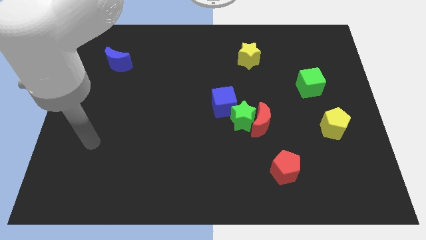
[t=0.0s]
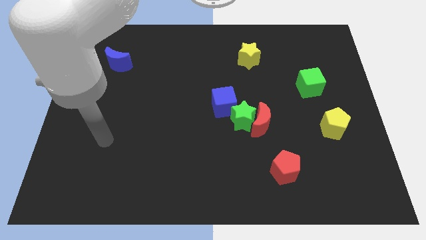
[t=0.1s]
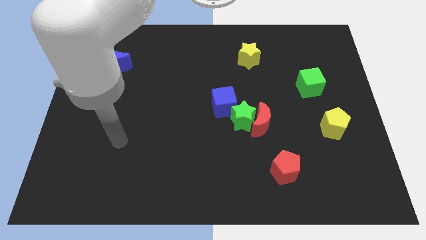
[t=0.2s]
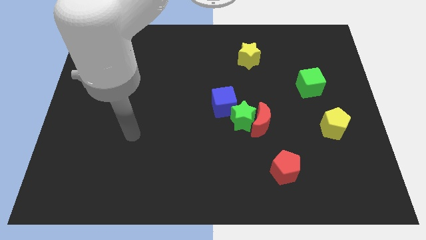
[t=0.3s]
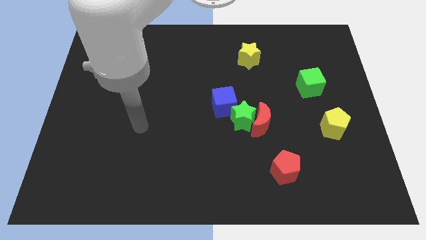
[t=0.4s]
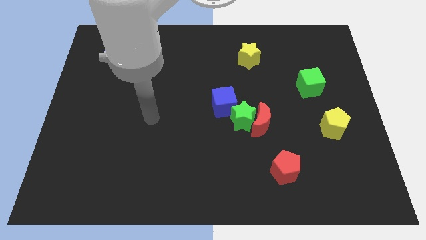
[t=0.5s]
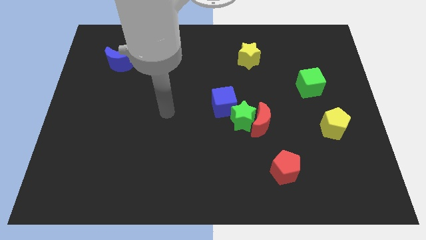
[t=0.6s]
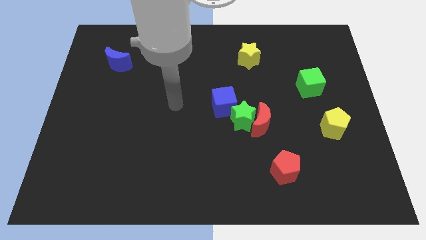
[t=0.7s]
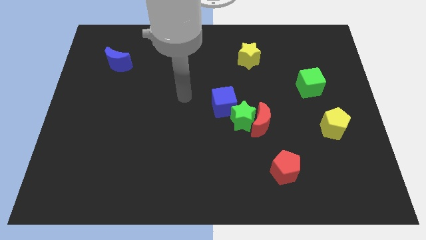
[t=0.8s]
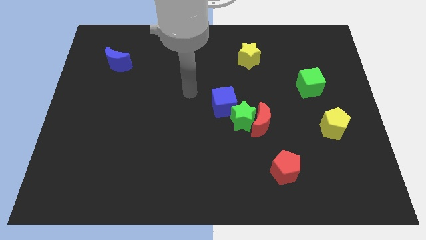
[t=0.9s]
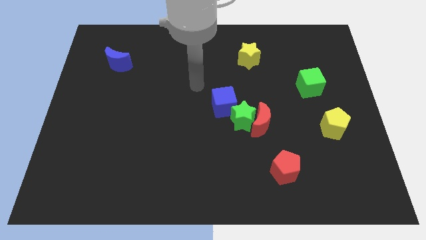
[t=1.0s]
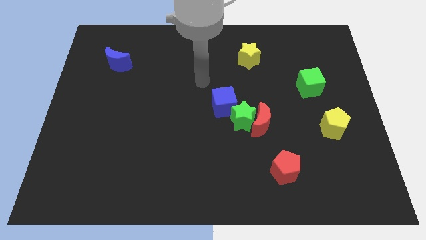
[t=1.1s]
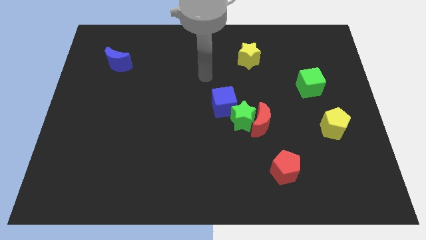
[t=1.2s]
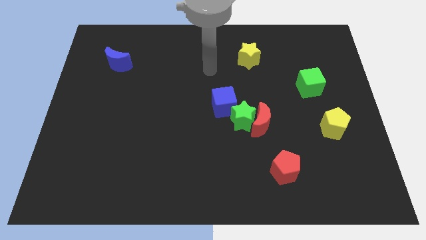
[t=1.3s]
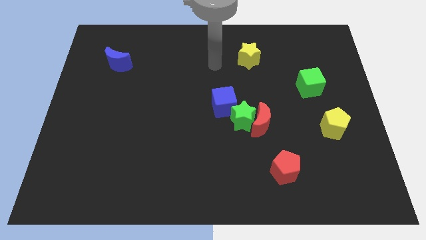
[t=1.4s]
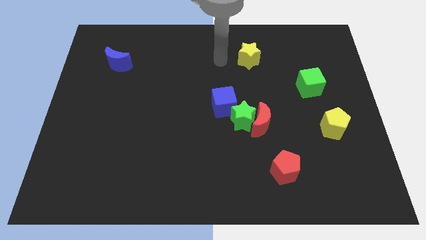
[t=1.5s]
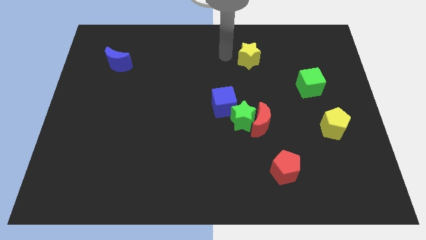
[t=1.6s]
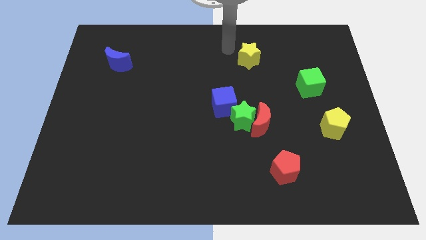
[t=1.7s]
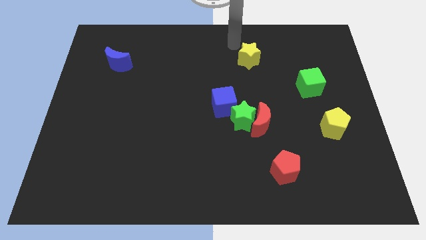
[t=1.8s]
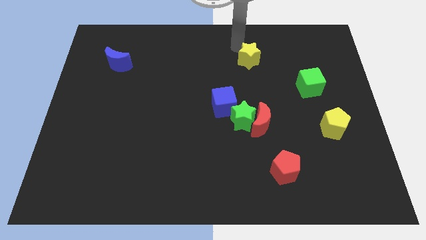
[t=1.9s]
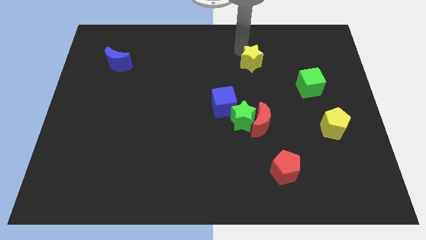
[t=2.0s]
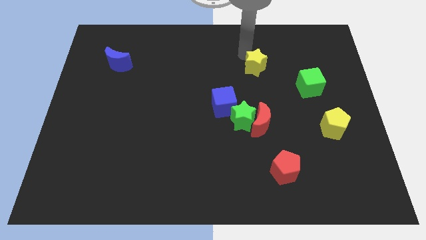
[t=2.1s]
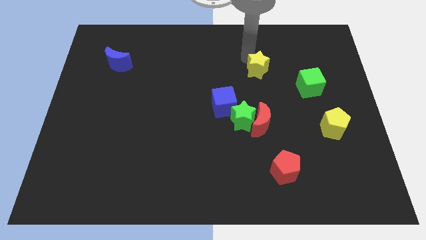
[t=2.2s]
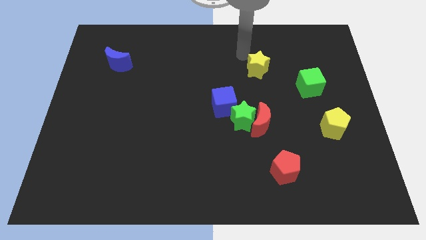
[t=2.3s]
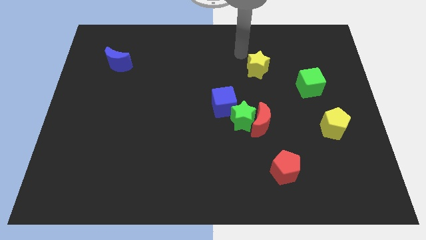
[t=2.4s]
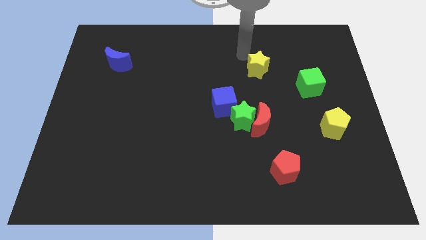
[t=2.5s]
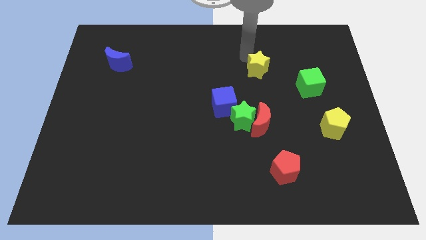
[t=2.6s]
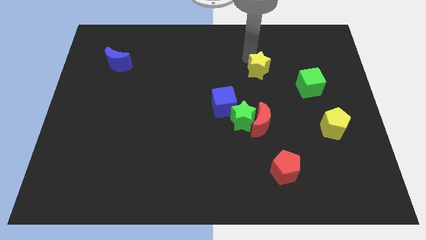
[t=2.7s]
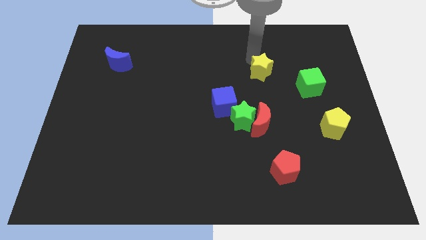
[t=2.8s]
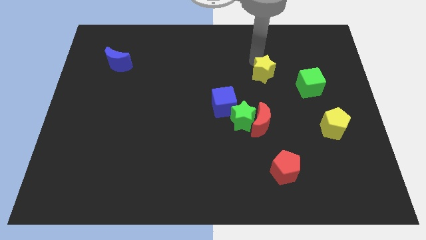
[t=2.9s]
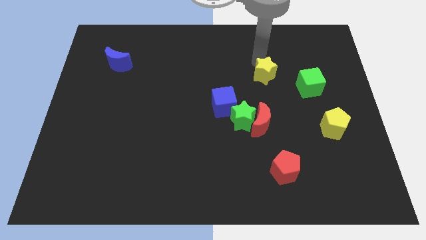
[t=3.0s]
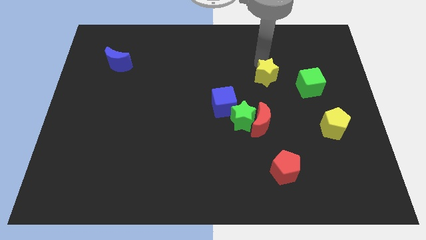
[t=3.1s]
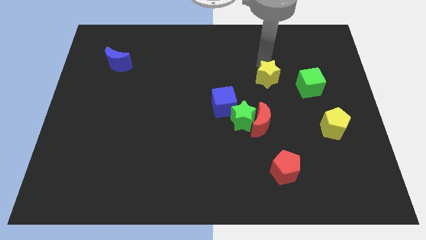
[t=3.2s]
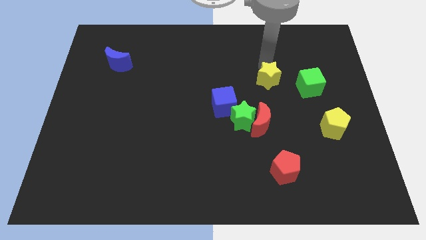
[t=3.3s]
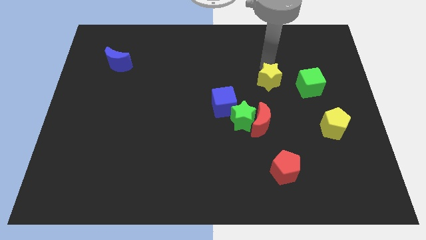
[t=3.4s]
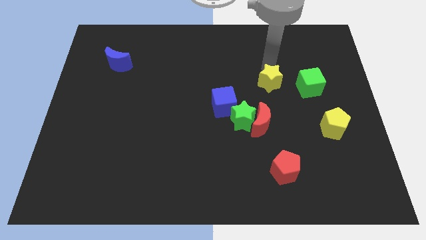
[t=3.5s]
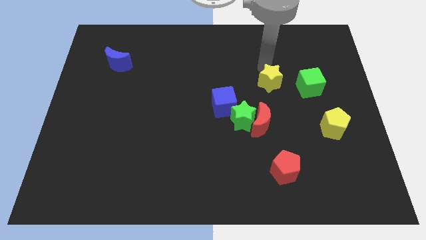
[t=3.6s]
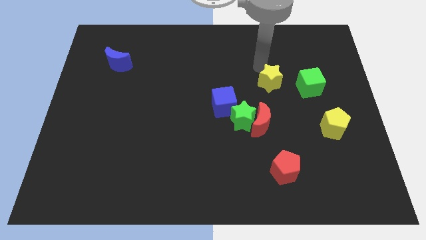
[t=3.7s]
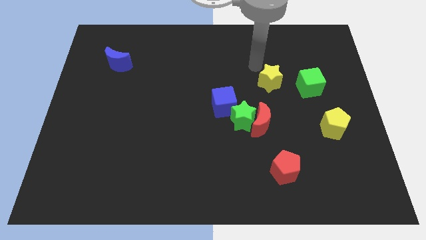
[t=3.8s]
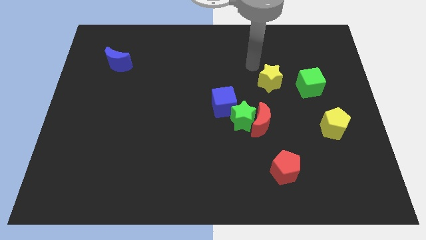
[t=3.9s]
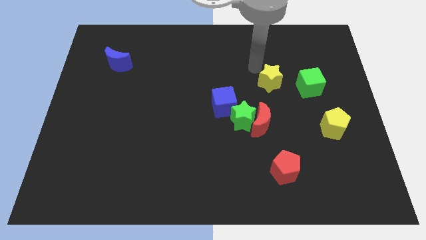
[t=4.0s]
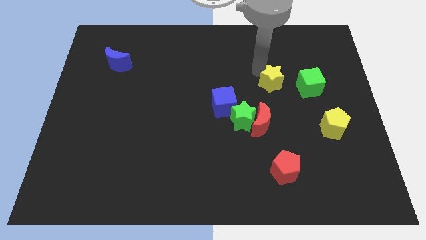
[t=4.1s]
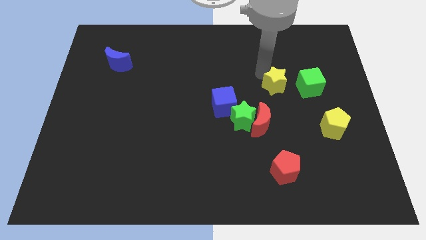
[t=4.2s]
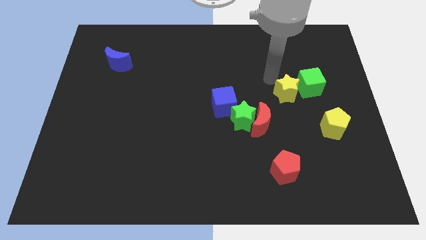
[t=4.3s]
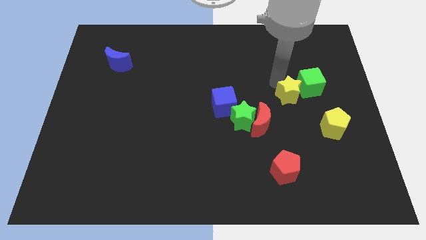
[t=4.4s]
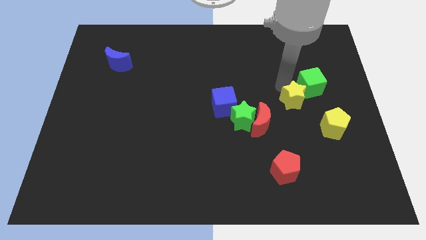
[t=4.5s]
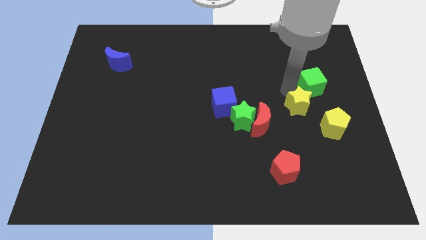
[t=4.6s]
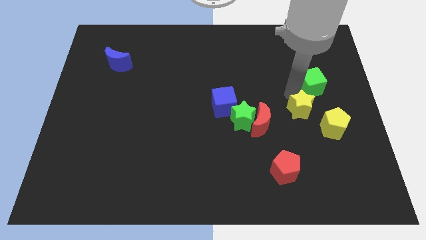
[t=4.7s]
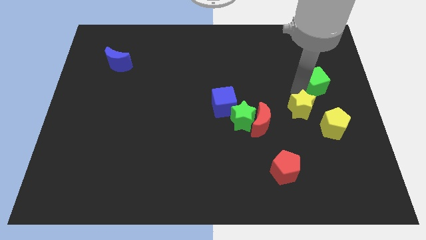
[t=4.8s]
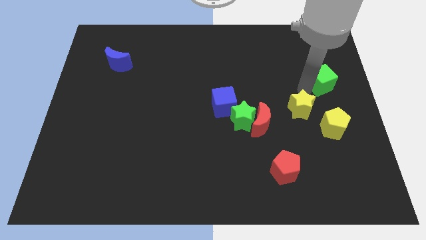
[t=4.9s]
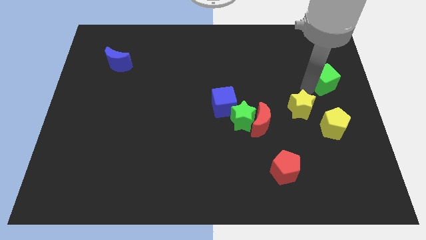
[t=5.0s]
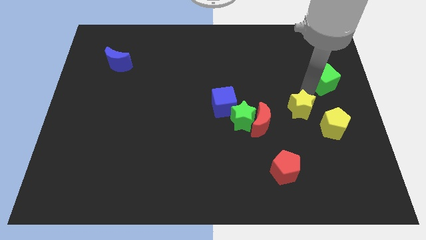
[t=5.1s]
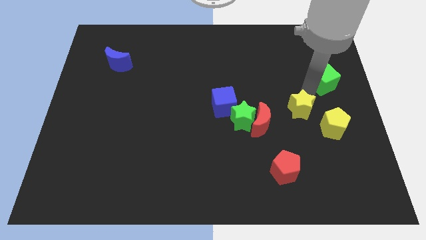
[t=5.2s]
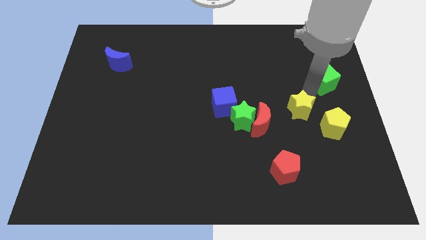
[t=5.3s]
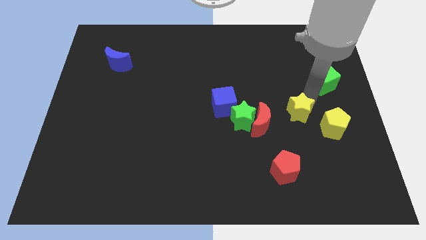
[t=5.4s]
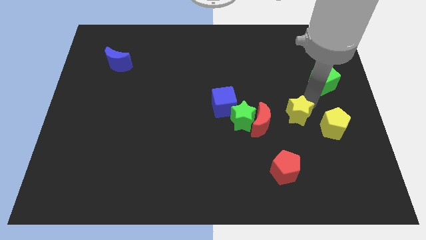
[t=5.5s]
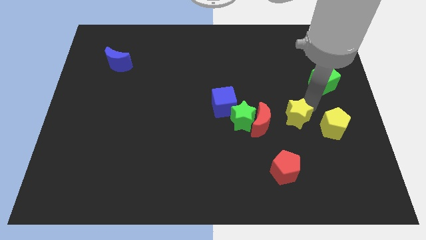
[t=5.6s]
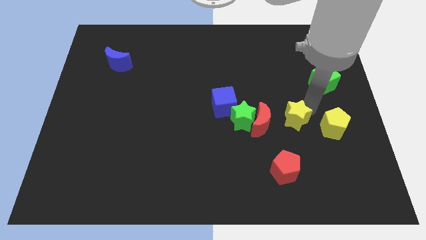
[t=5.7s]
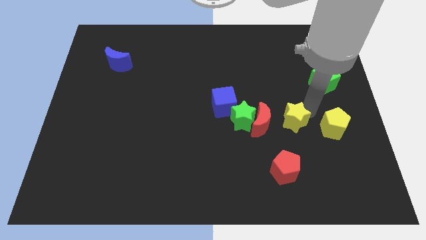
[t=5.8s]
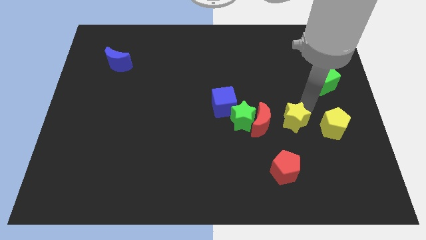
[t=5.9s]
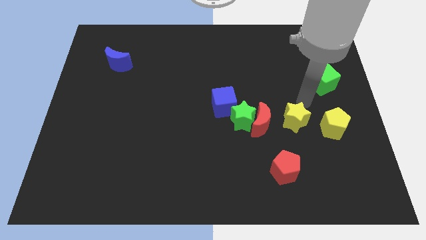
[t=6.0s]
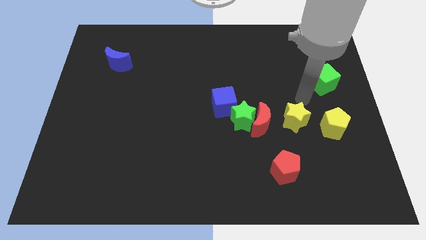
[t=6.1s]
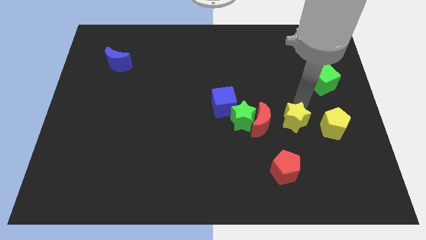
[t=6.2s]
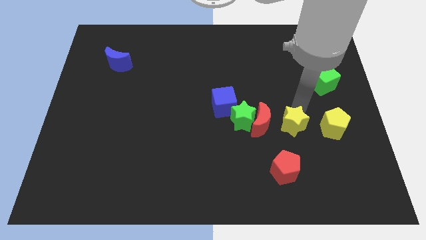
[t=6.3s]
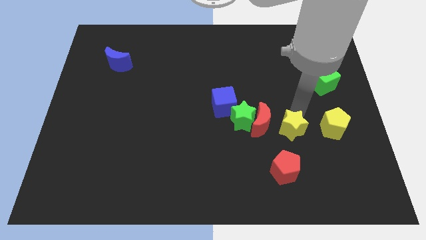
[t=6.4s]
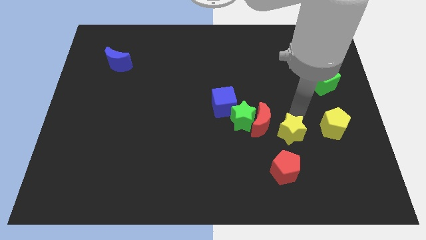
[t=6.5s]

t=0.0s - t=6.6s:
push the yellow star downwards

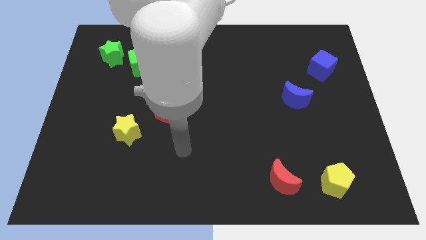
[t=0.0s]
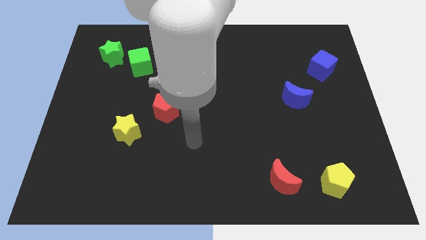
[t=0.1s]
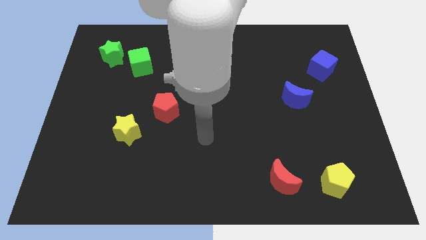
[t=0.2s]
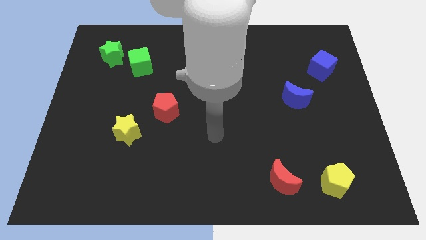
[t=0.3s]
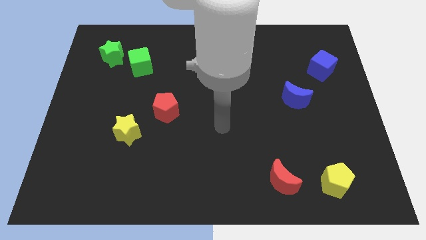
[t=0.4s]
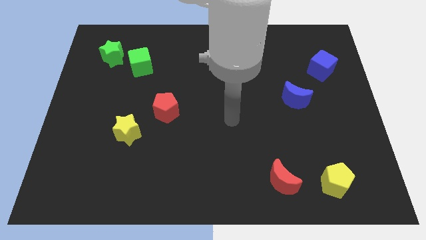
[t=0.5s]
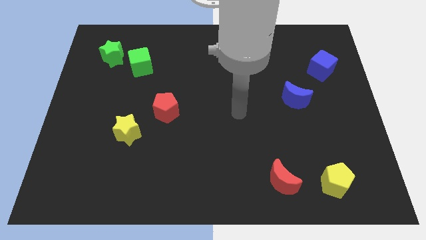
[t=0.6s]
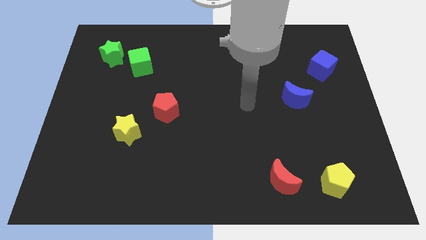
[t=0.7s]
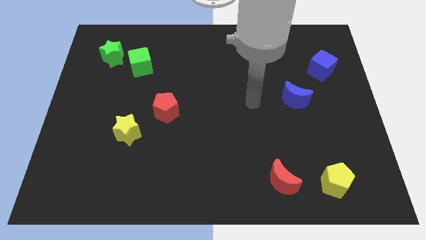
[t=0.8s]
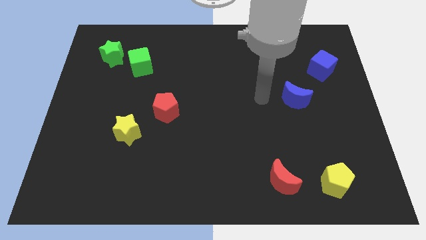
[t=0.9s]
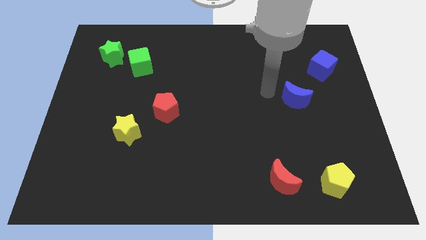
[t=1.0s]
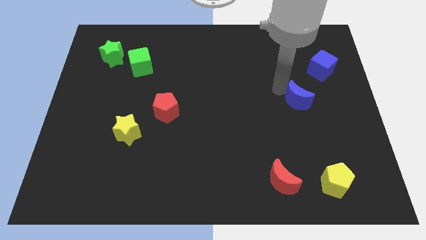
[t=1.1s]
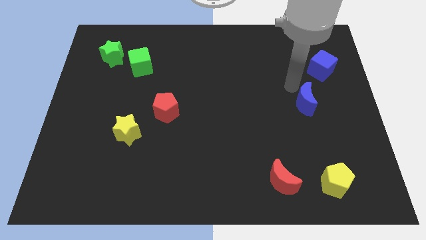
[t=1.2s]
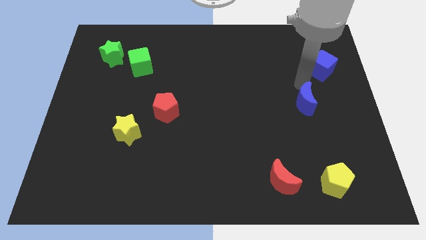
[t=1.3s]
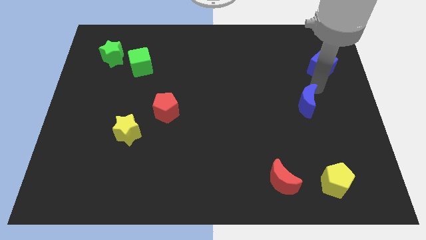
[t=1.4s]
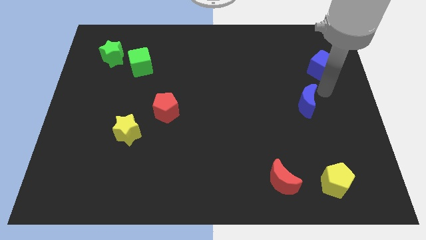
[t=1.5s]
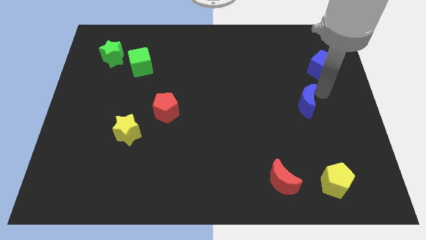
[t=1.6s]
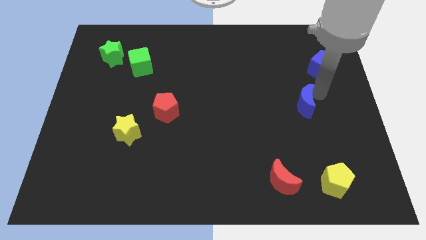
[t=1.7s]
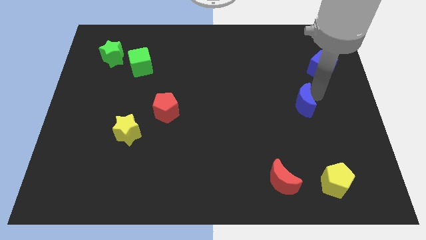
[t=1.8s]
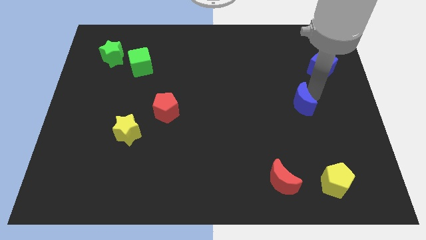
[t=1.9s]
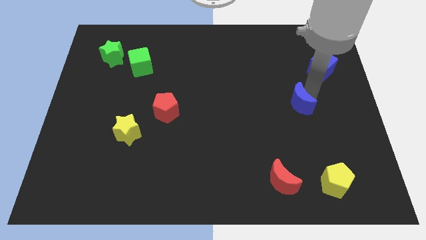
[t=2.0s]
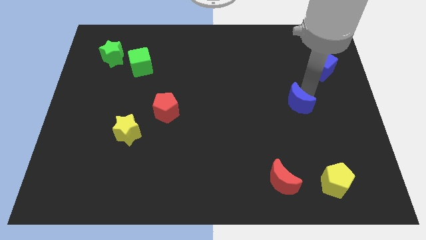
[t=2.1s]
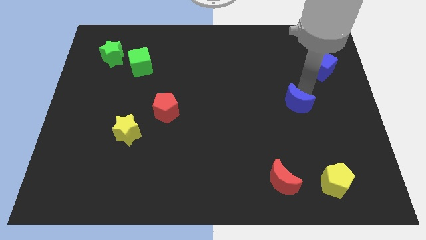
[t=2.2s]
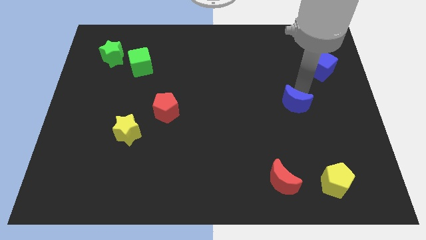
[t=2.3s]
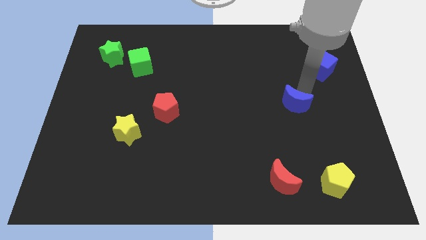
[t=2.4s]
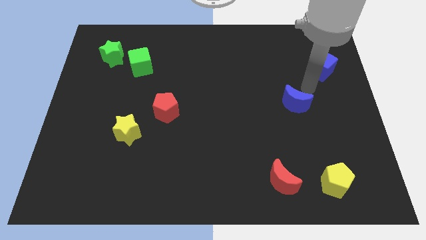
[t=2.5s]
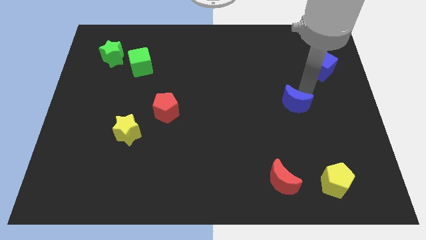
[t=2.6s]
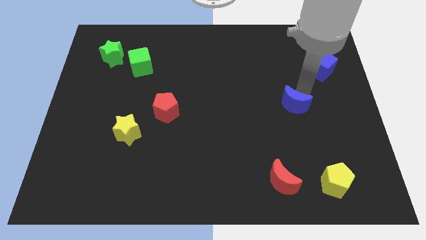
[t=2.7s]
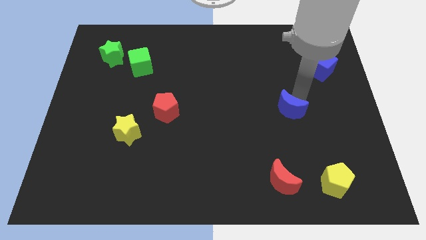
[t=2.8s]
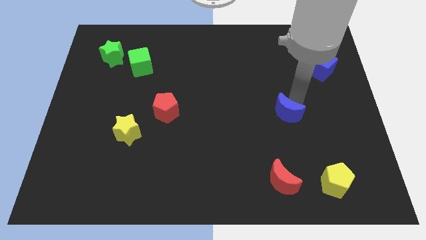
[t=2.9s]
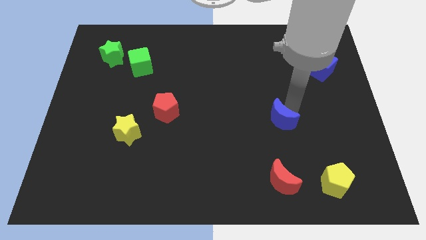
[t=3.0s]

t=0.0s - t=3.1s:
move the blue moon downwards and left diagonally a little
